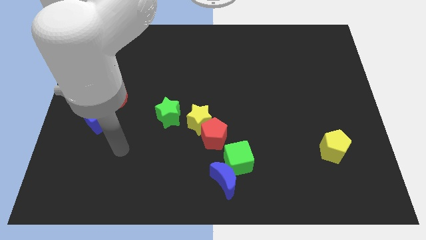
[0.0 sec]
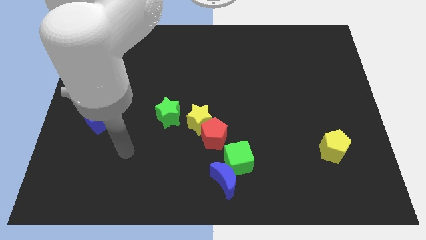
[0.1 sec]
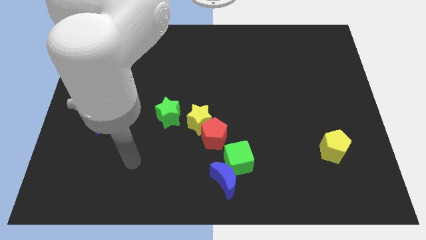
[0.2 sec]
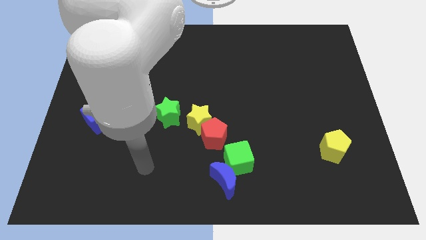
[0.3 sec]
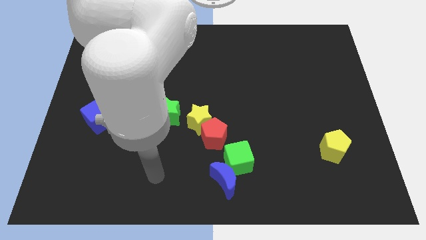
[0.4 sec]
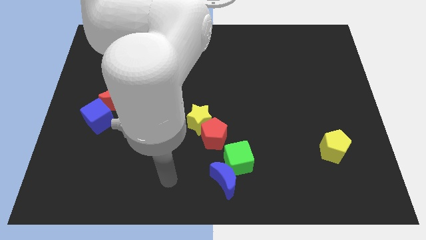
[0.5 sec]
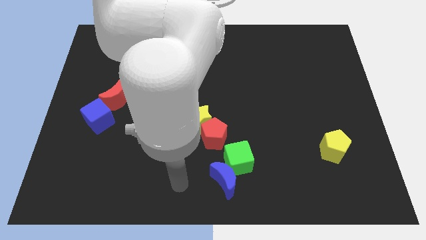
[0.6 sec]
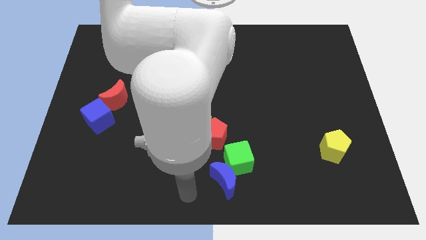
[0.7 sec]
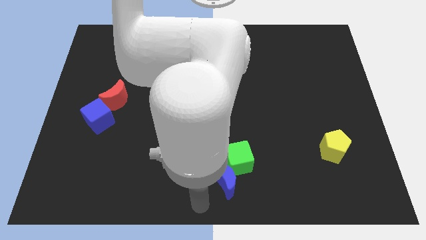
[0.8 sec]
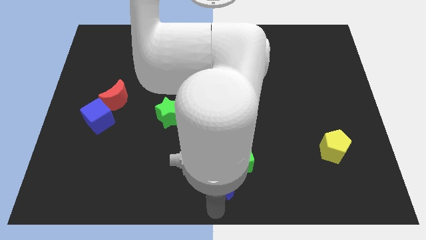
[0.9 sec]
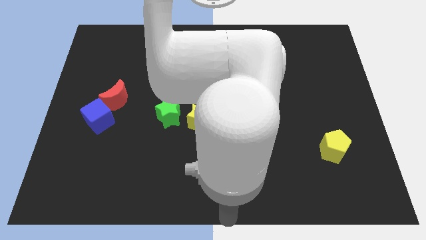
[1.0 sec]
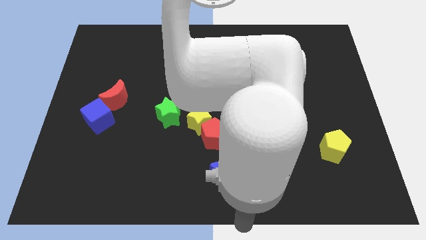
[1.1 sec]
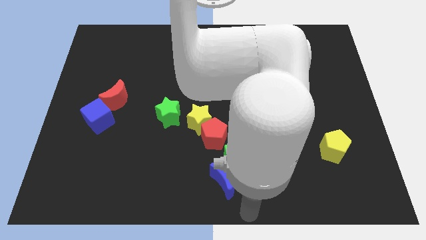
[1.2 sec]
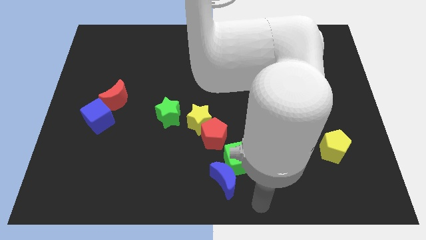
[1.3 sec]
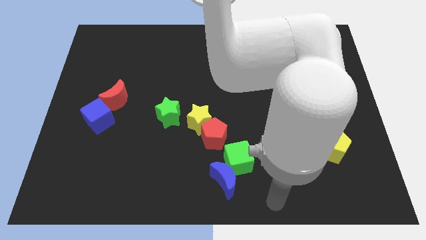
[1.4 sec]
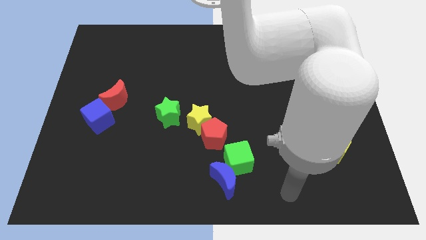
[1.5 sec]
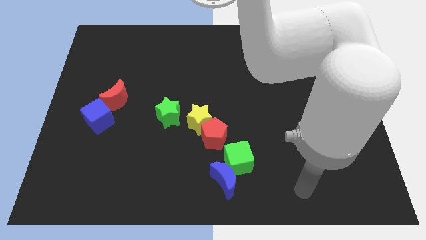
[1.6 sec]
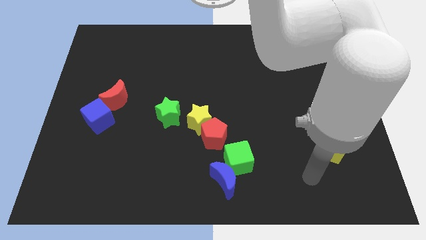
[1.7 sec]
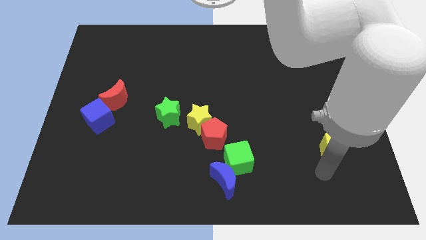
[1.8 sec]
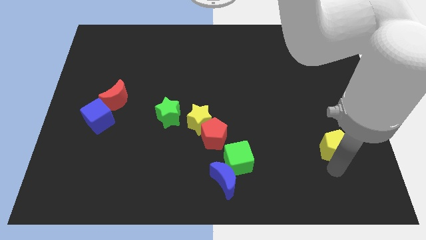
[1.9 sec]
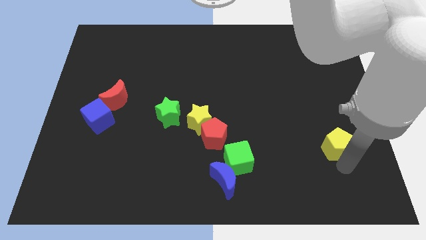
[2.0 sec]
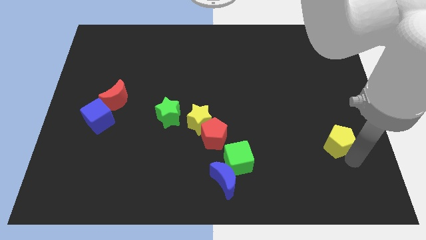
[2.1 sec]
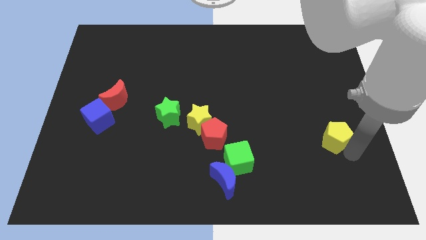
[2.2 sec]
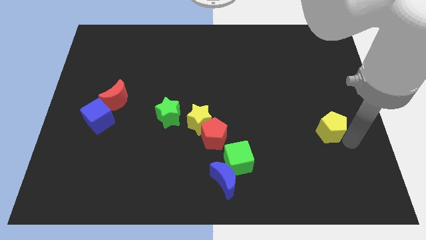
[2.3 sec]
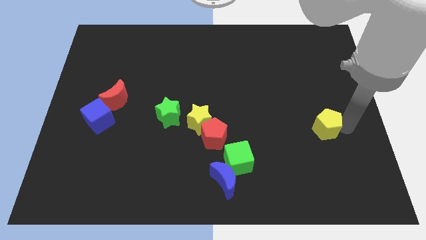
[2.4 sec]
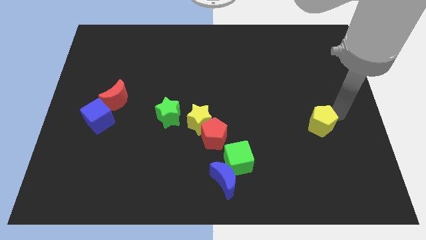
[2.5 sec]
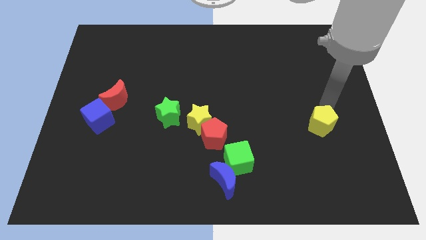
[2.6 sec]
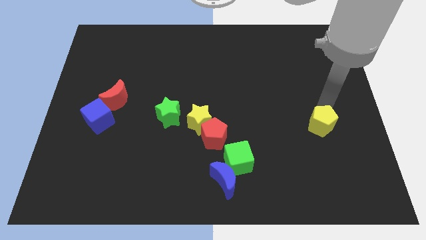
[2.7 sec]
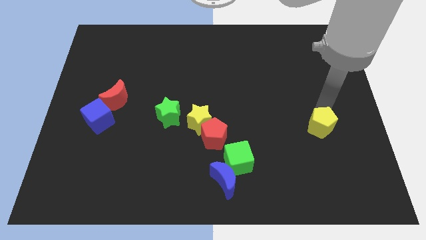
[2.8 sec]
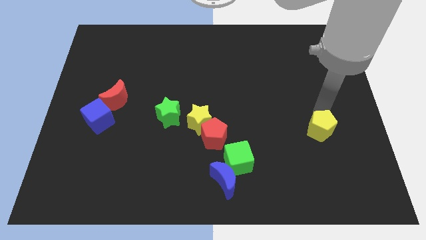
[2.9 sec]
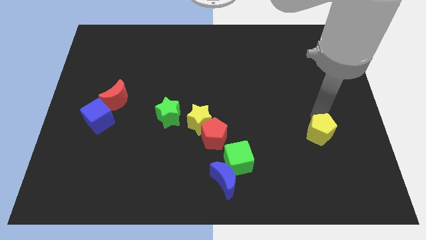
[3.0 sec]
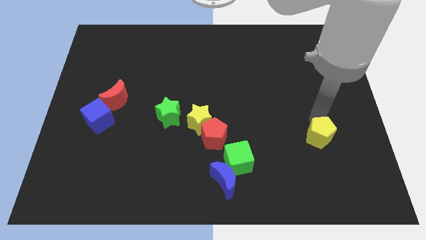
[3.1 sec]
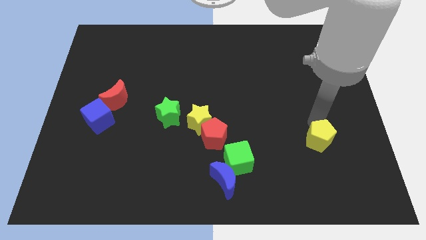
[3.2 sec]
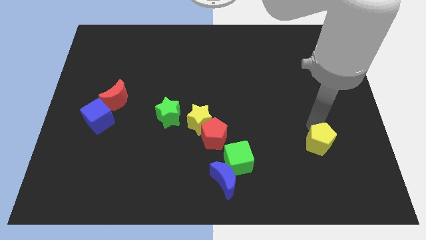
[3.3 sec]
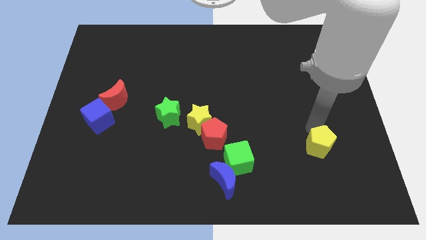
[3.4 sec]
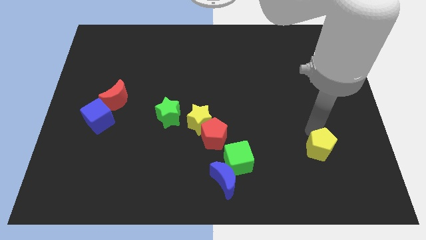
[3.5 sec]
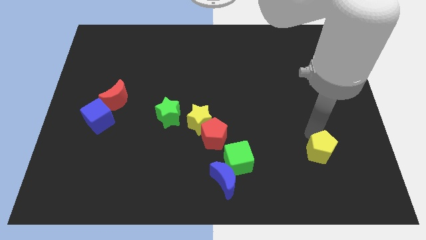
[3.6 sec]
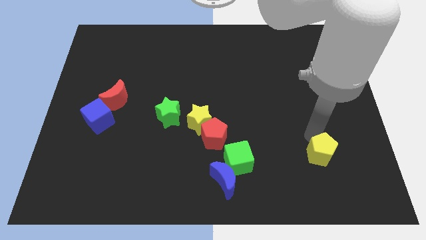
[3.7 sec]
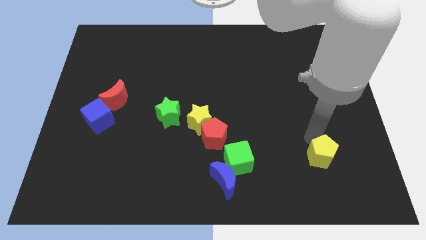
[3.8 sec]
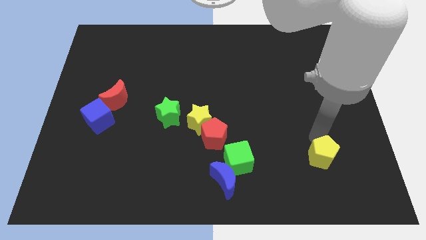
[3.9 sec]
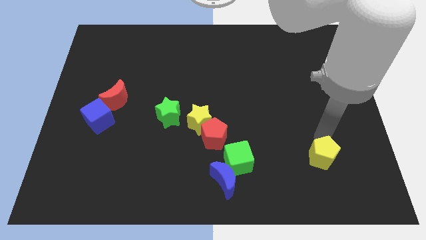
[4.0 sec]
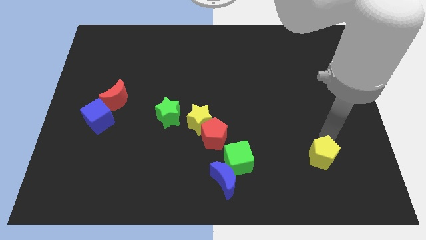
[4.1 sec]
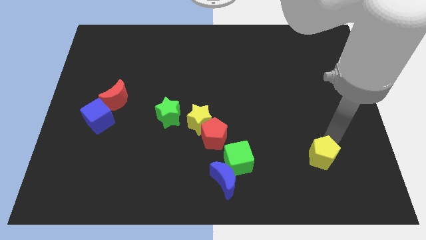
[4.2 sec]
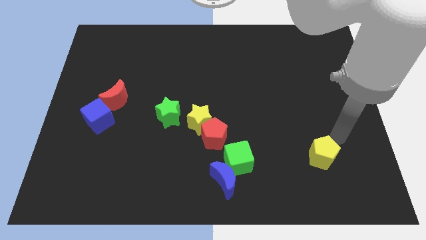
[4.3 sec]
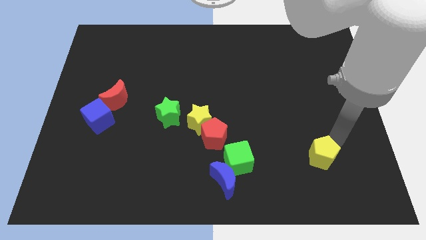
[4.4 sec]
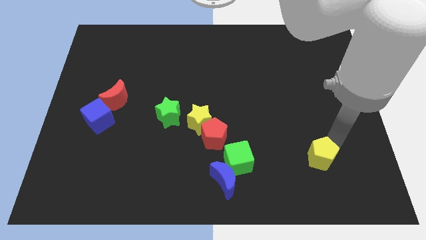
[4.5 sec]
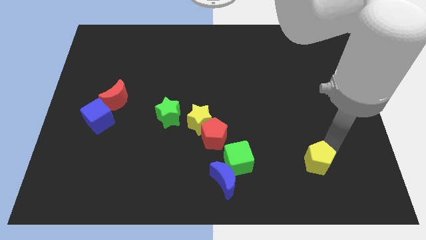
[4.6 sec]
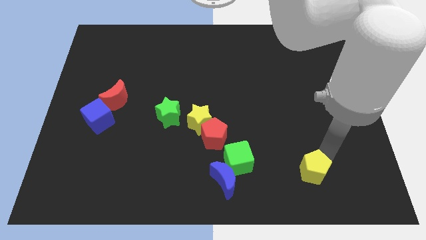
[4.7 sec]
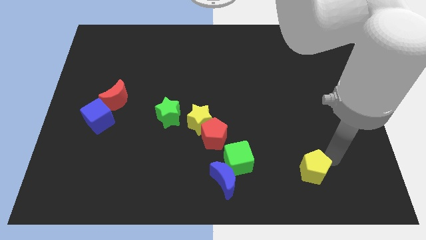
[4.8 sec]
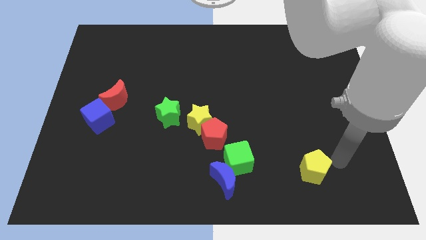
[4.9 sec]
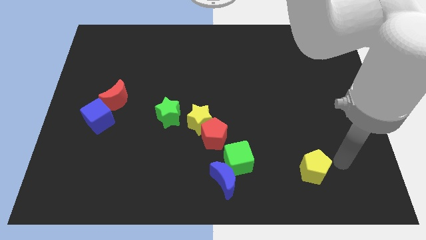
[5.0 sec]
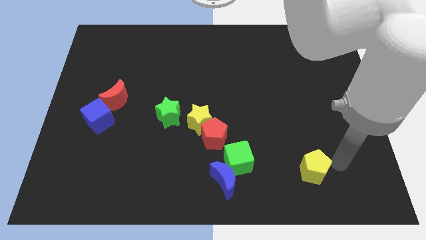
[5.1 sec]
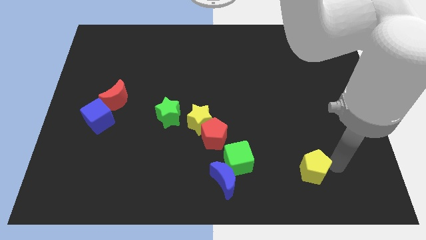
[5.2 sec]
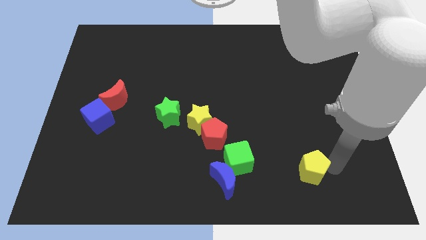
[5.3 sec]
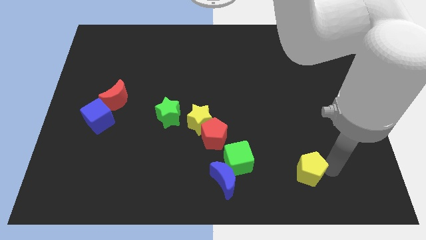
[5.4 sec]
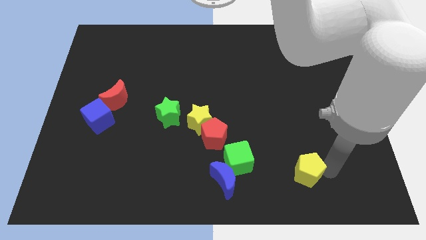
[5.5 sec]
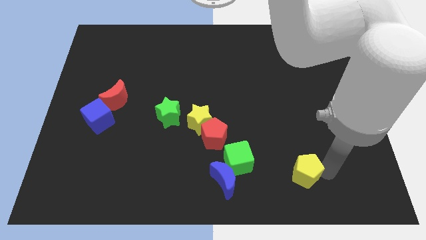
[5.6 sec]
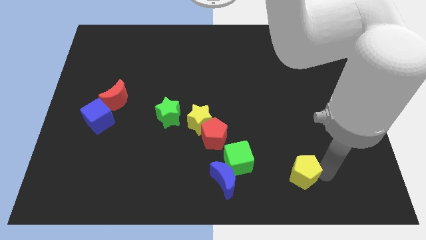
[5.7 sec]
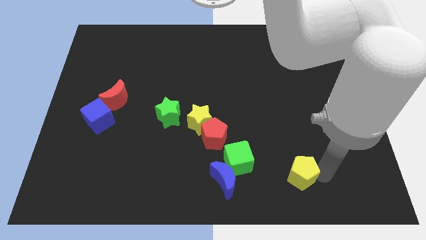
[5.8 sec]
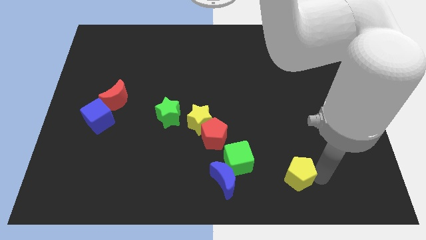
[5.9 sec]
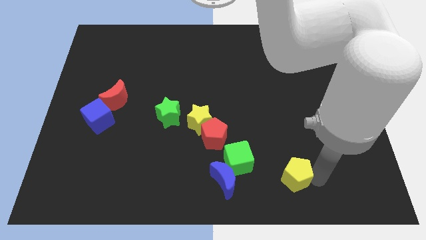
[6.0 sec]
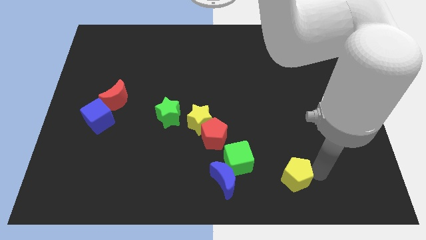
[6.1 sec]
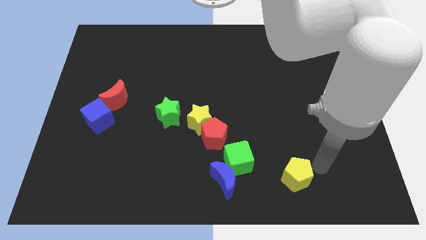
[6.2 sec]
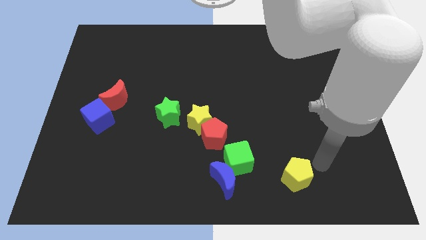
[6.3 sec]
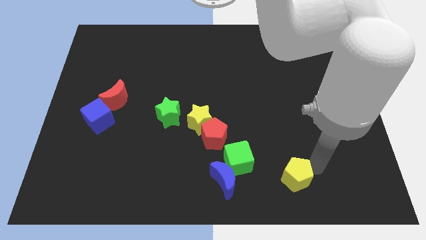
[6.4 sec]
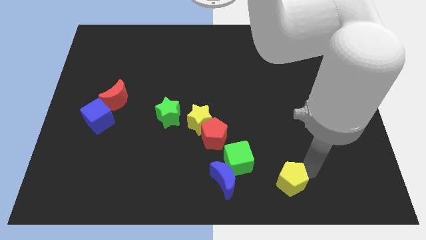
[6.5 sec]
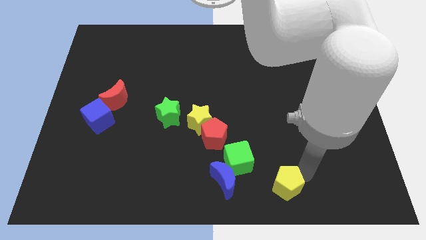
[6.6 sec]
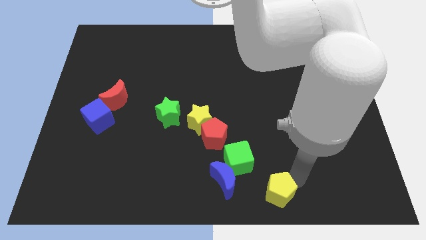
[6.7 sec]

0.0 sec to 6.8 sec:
slide the yellow pentagon to the bottom

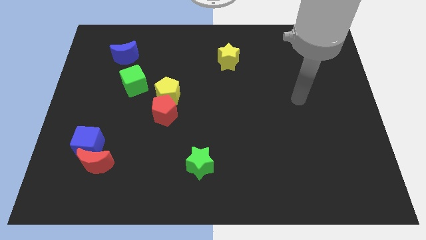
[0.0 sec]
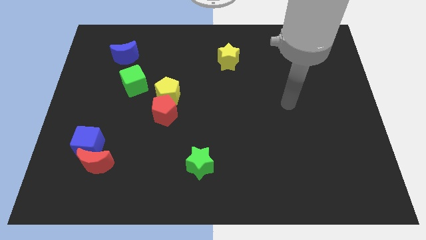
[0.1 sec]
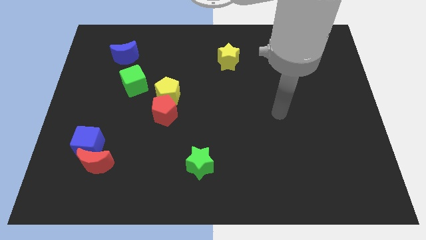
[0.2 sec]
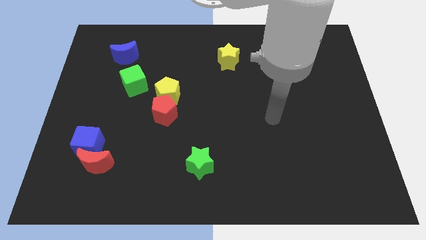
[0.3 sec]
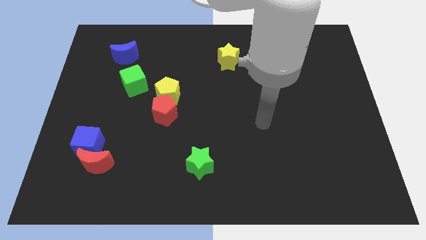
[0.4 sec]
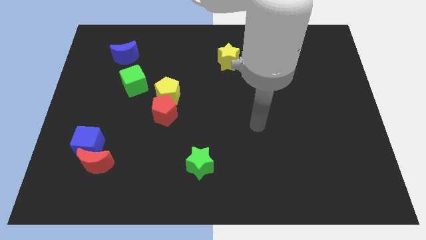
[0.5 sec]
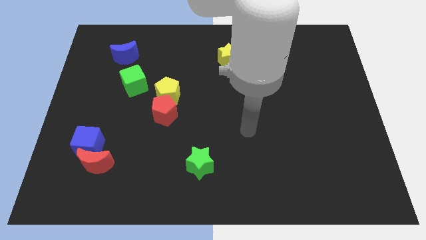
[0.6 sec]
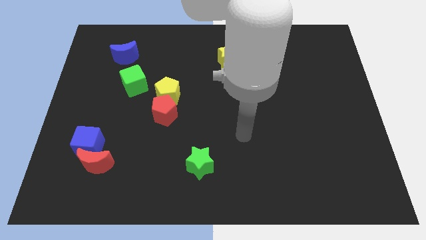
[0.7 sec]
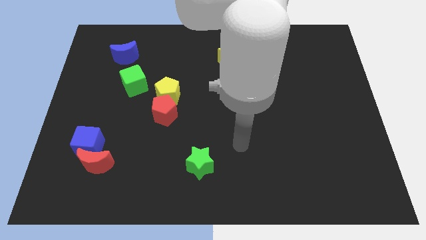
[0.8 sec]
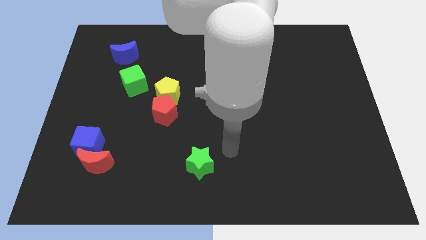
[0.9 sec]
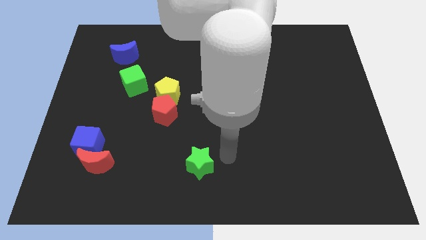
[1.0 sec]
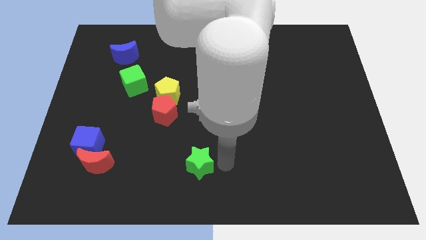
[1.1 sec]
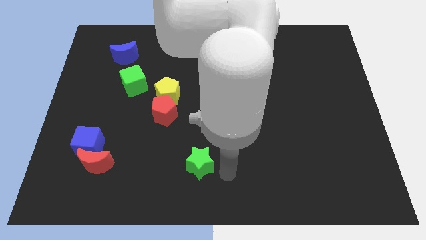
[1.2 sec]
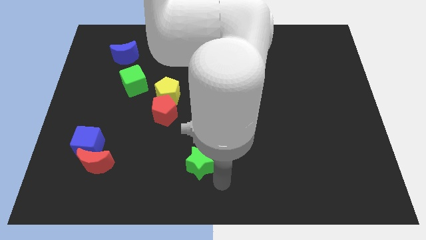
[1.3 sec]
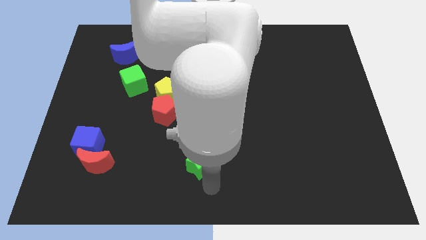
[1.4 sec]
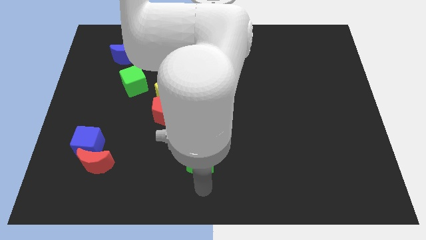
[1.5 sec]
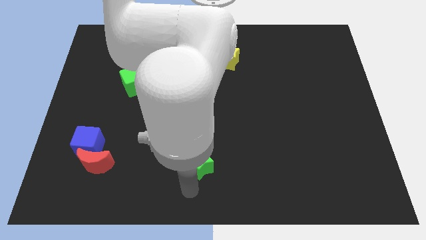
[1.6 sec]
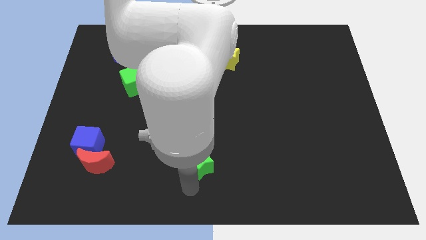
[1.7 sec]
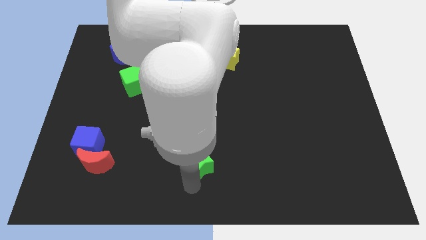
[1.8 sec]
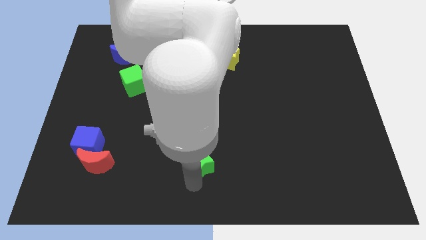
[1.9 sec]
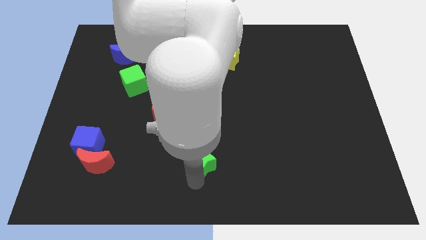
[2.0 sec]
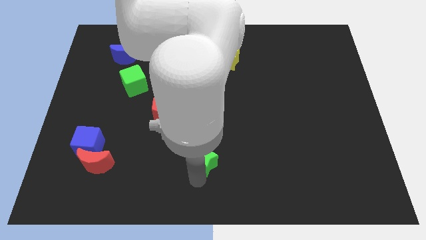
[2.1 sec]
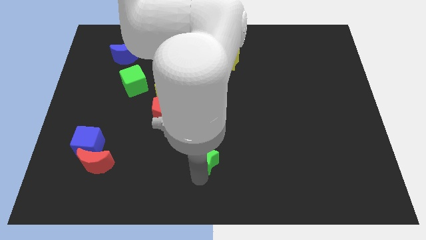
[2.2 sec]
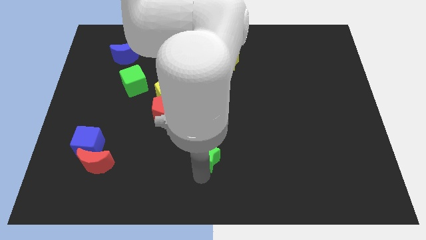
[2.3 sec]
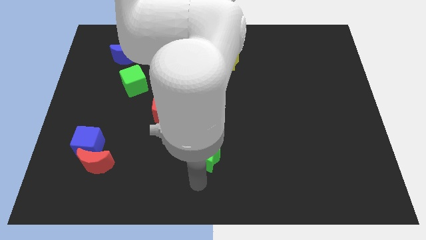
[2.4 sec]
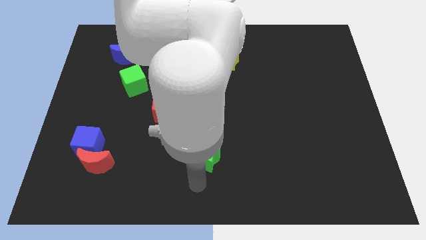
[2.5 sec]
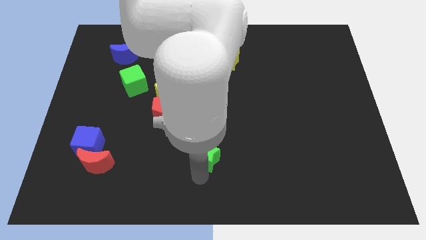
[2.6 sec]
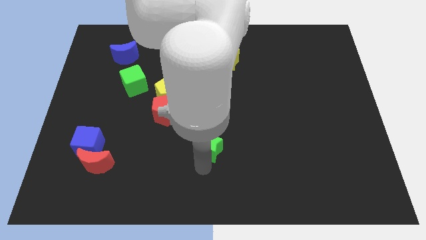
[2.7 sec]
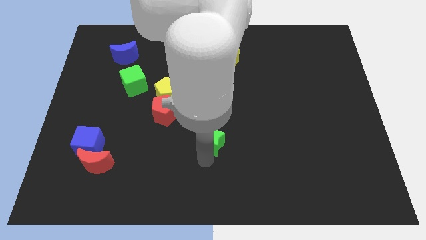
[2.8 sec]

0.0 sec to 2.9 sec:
move the green star to the center
